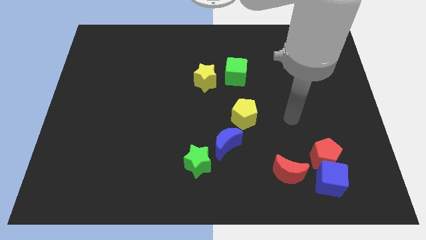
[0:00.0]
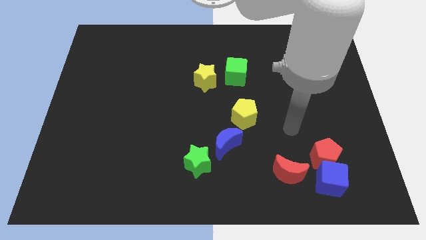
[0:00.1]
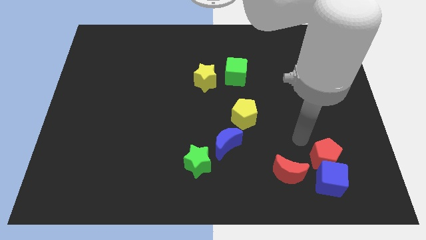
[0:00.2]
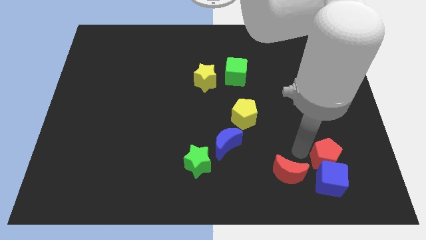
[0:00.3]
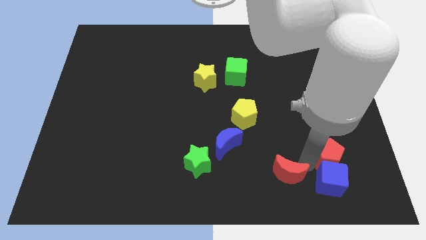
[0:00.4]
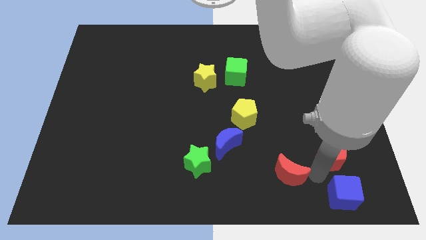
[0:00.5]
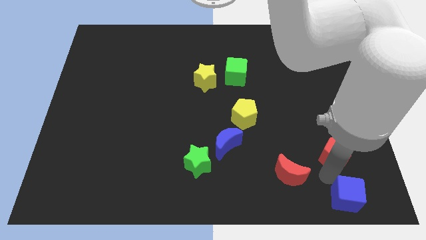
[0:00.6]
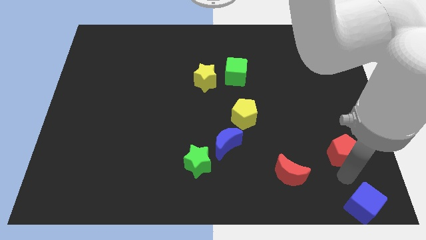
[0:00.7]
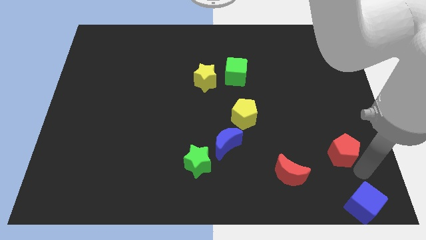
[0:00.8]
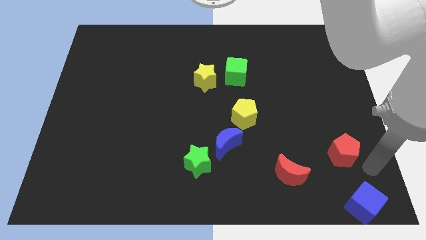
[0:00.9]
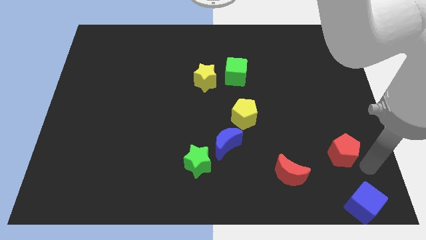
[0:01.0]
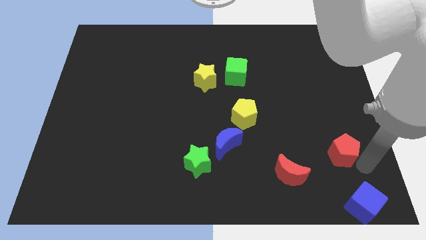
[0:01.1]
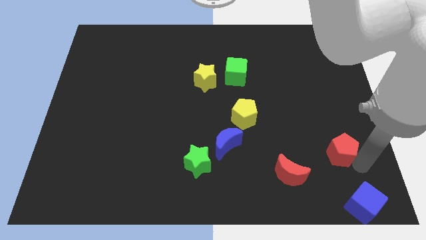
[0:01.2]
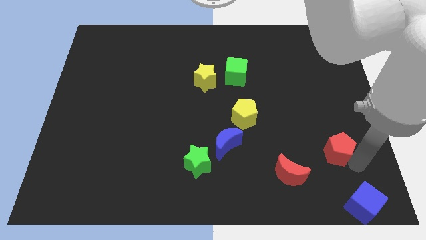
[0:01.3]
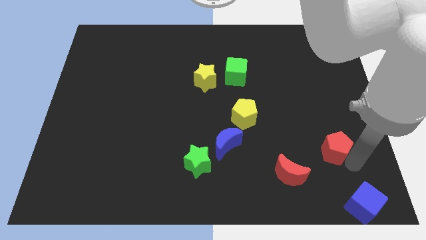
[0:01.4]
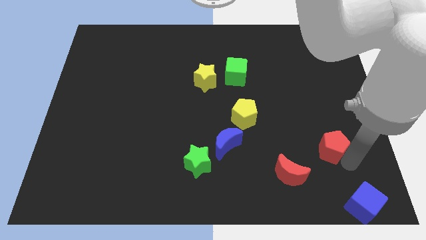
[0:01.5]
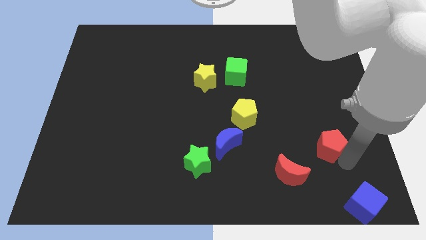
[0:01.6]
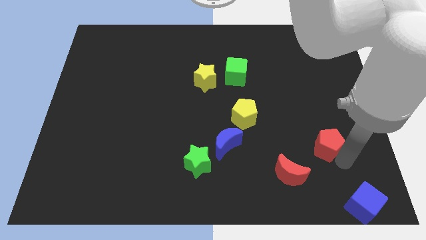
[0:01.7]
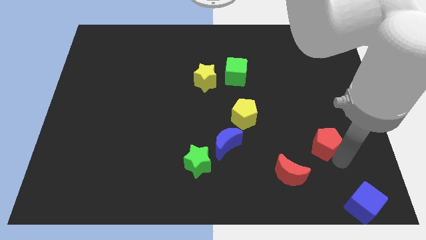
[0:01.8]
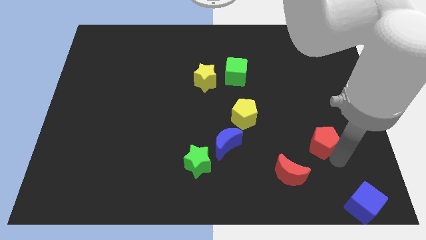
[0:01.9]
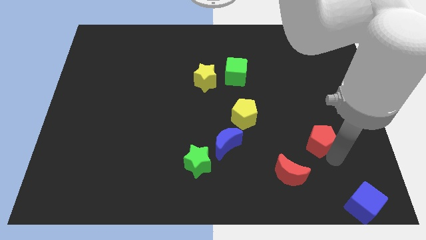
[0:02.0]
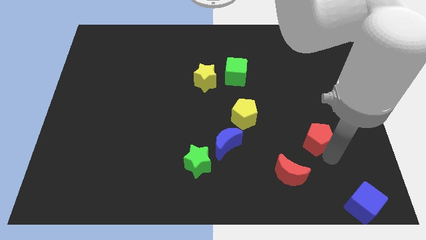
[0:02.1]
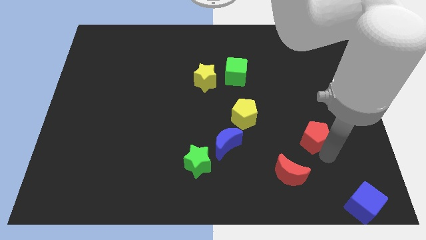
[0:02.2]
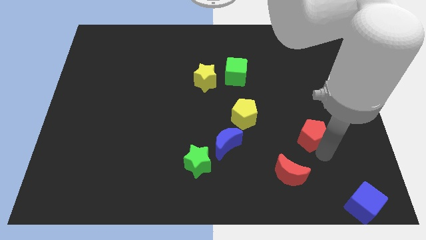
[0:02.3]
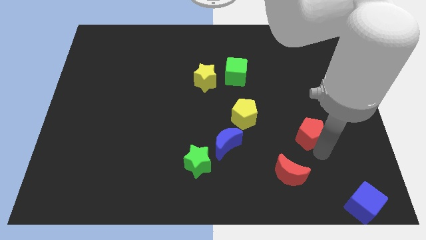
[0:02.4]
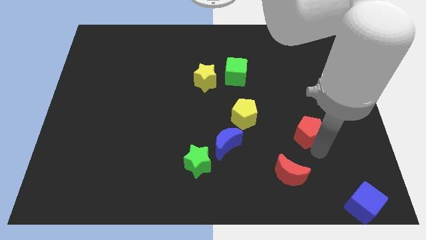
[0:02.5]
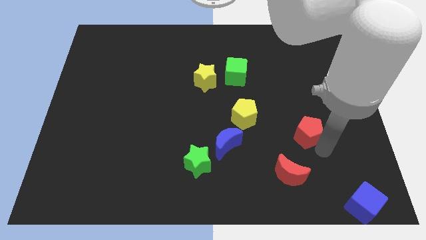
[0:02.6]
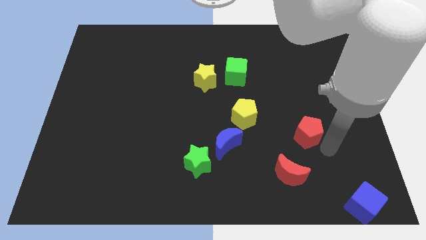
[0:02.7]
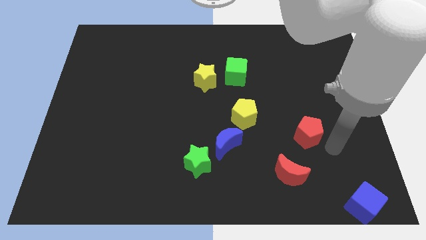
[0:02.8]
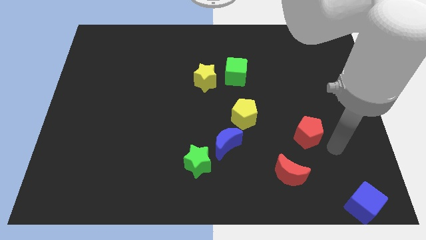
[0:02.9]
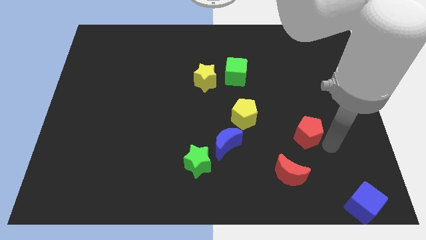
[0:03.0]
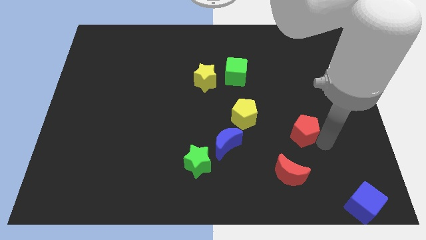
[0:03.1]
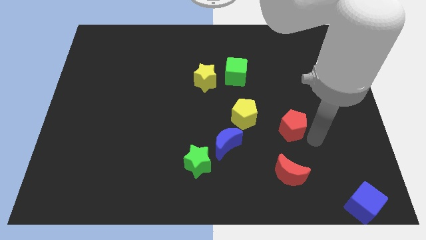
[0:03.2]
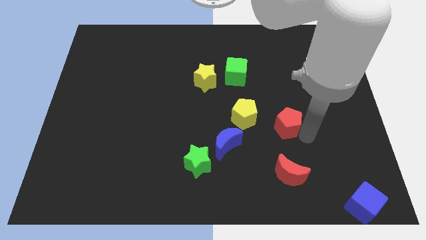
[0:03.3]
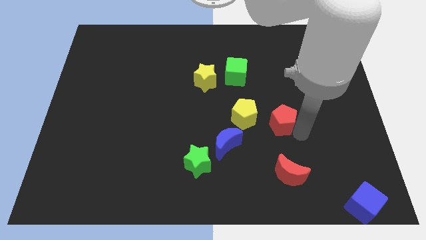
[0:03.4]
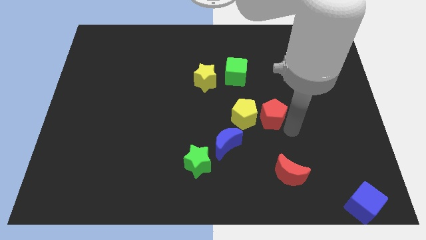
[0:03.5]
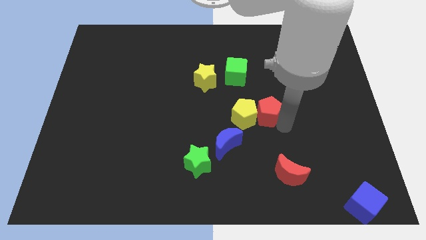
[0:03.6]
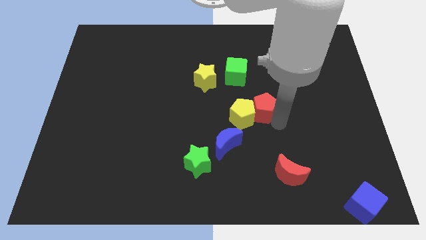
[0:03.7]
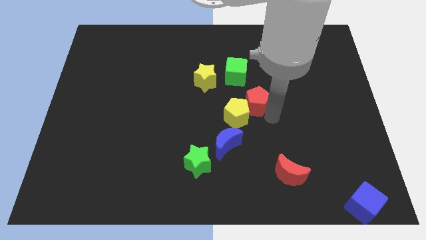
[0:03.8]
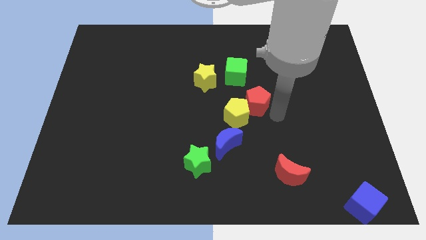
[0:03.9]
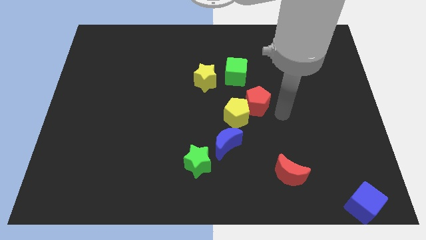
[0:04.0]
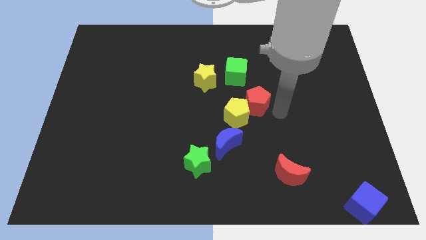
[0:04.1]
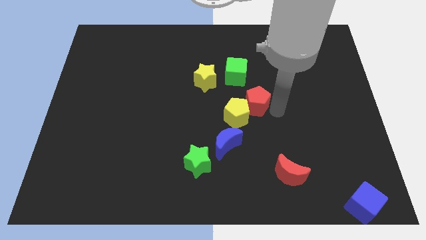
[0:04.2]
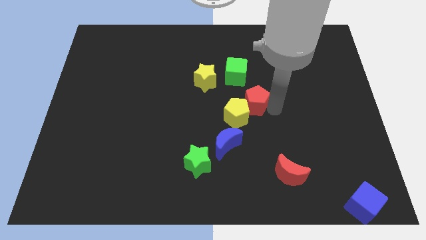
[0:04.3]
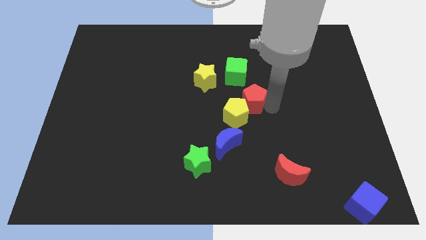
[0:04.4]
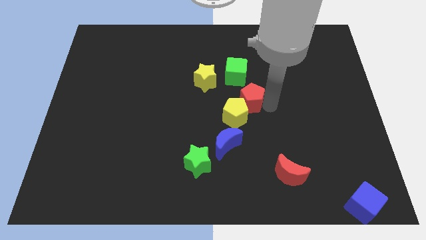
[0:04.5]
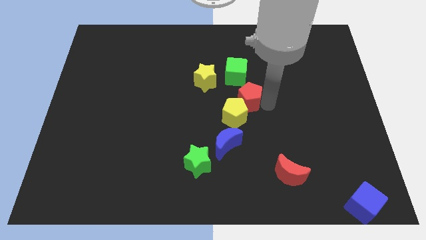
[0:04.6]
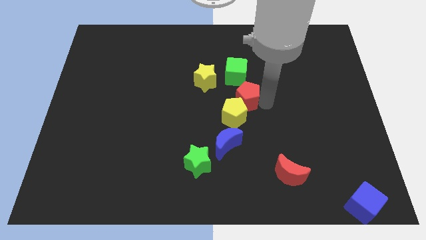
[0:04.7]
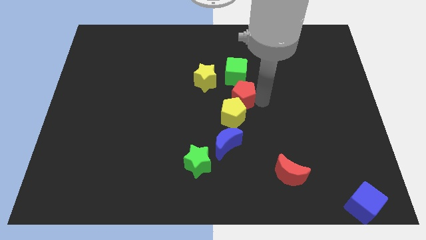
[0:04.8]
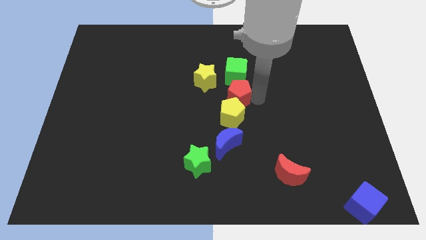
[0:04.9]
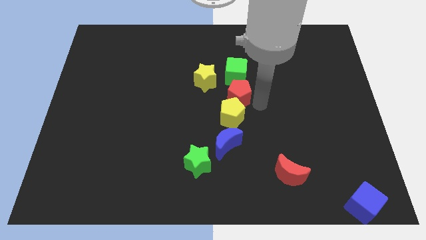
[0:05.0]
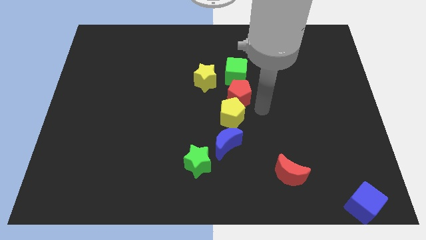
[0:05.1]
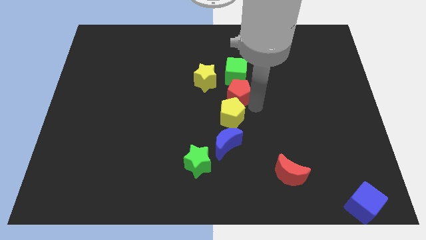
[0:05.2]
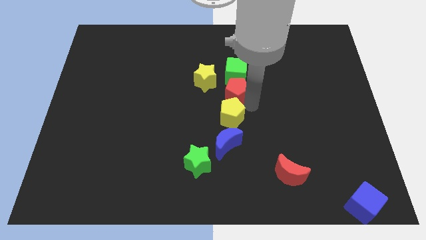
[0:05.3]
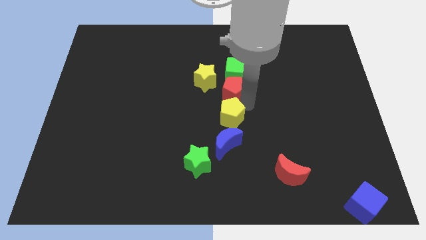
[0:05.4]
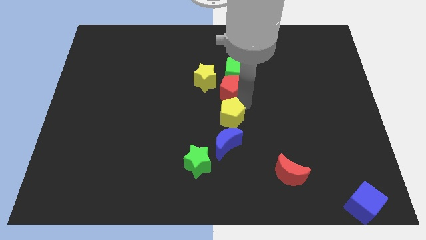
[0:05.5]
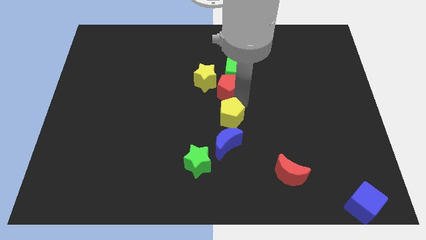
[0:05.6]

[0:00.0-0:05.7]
move the red pentagon to the yellow star

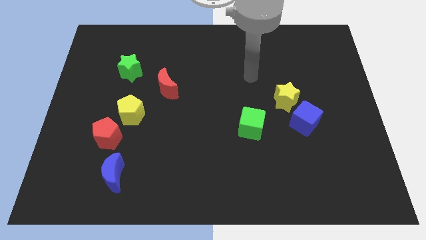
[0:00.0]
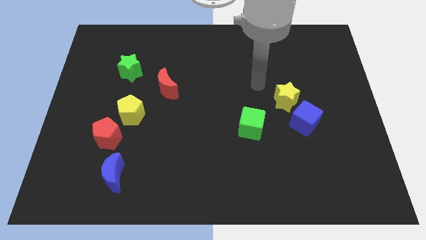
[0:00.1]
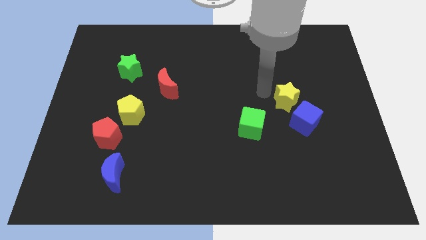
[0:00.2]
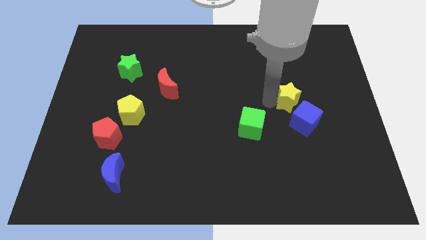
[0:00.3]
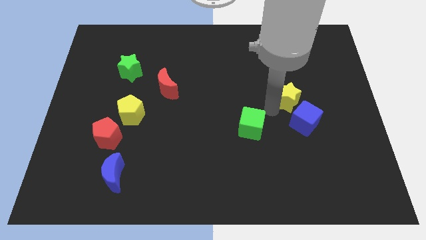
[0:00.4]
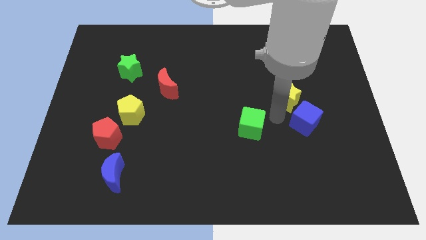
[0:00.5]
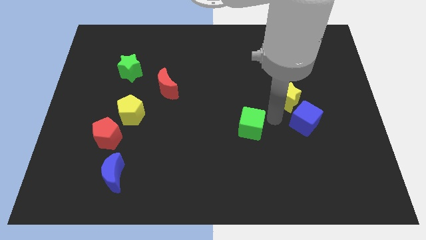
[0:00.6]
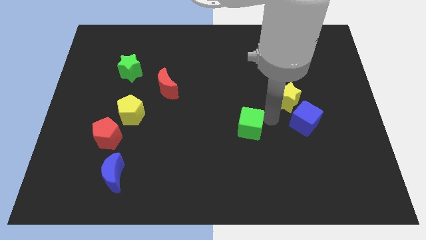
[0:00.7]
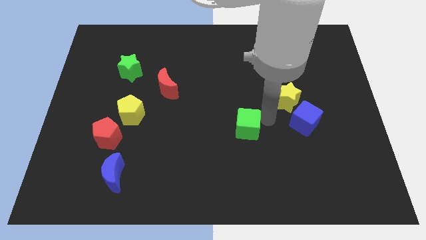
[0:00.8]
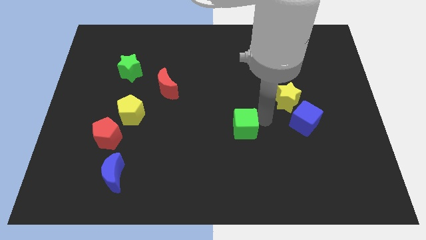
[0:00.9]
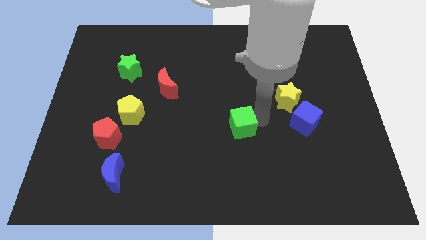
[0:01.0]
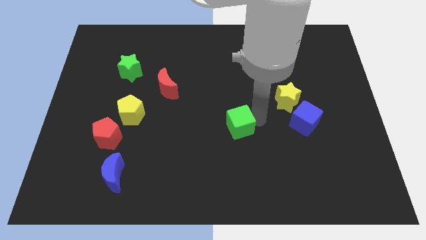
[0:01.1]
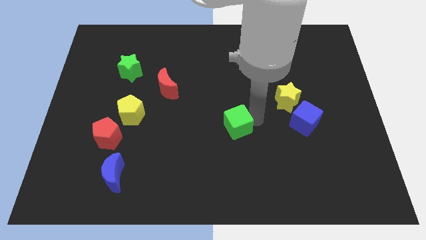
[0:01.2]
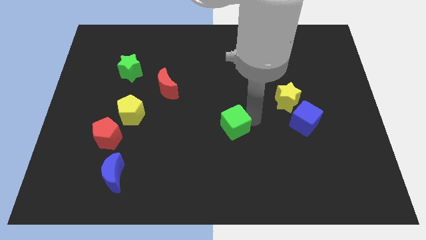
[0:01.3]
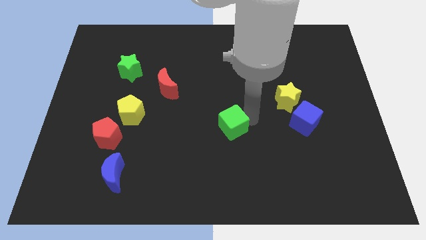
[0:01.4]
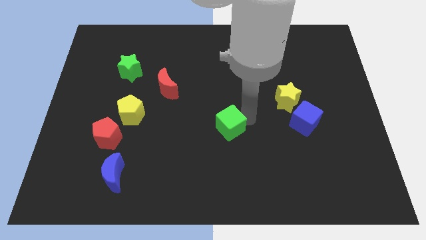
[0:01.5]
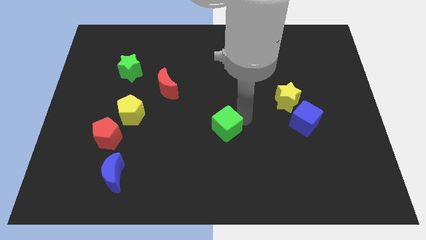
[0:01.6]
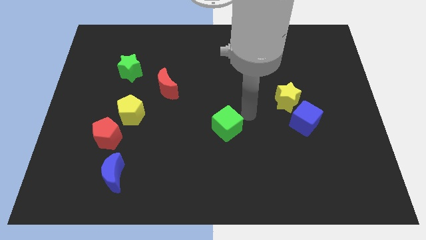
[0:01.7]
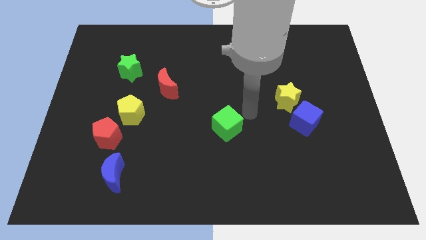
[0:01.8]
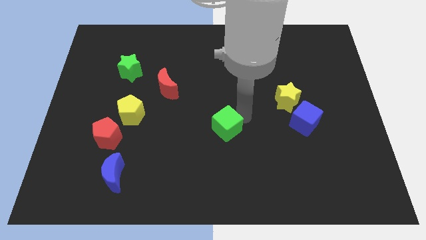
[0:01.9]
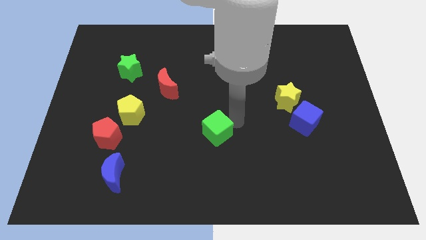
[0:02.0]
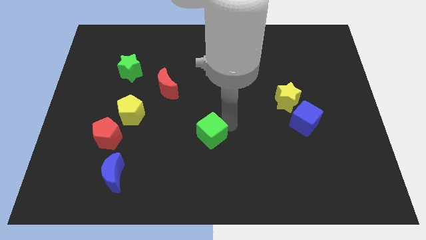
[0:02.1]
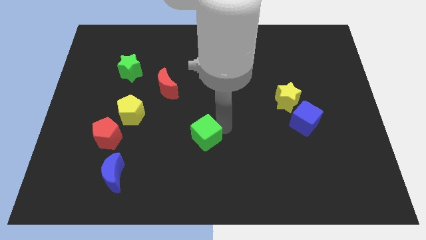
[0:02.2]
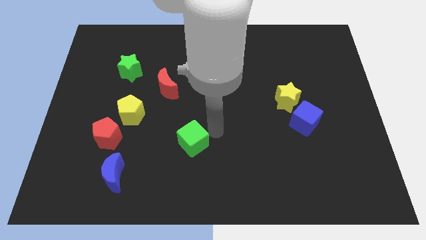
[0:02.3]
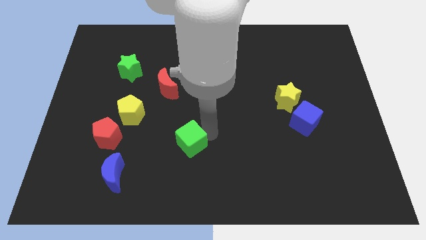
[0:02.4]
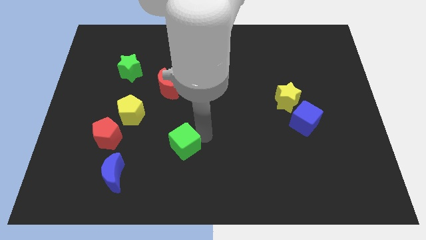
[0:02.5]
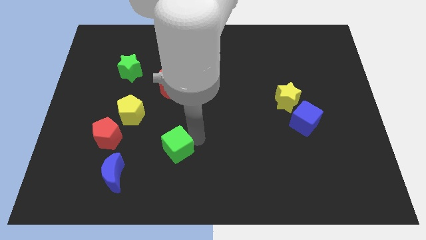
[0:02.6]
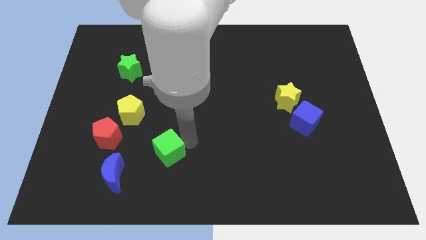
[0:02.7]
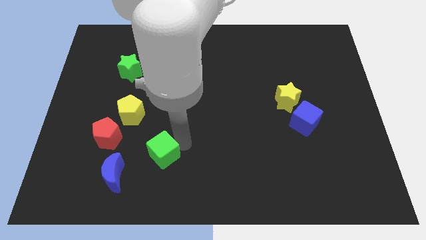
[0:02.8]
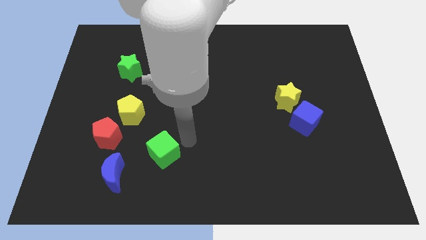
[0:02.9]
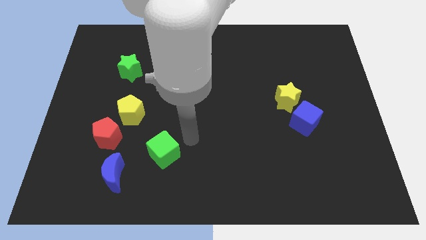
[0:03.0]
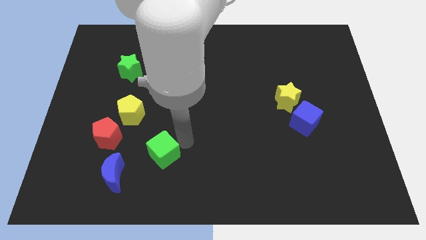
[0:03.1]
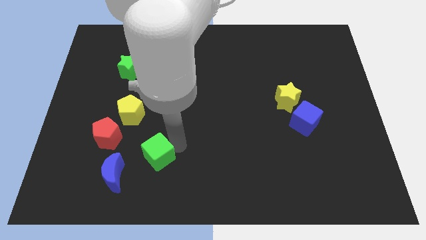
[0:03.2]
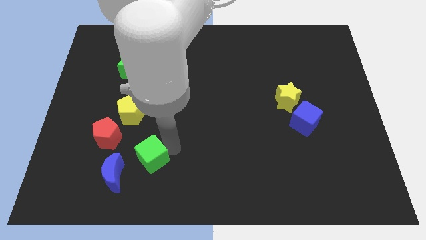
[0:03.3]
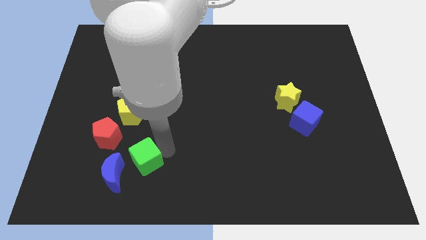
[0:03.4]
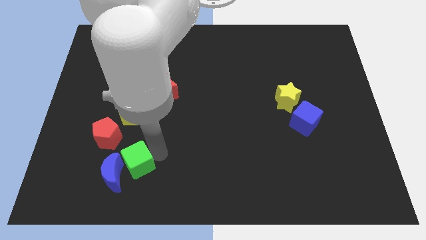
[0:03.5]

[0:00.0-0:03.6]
move the green cube towards the blue moon
